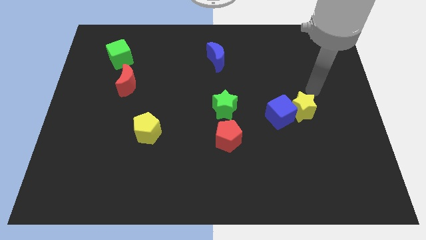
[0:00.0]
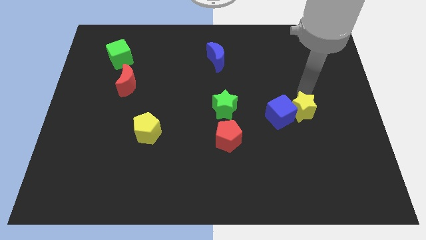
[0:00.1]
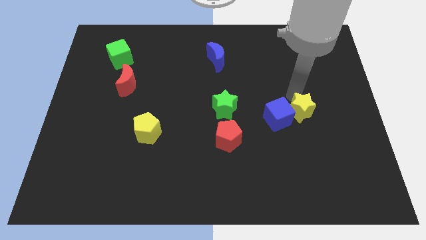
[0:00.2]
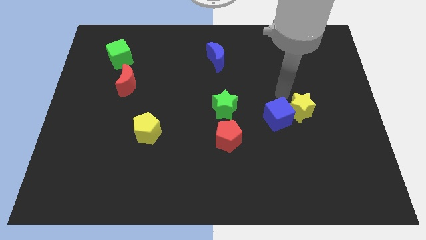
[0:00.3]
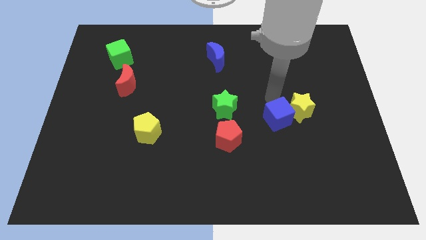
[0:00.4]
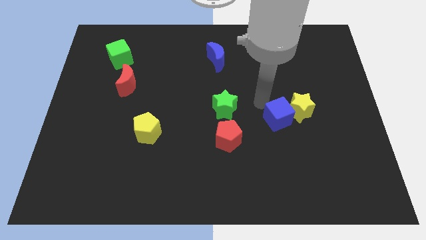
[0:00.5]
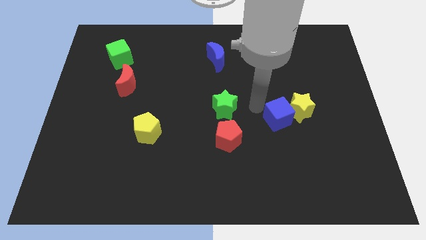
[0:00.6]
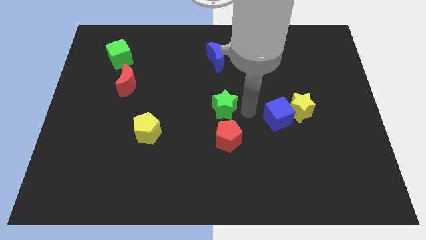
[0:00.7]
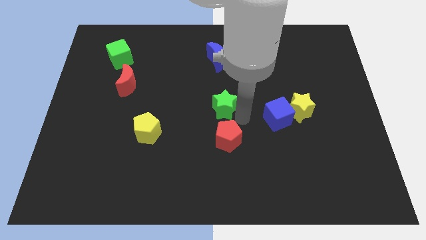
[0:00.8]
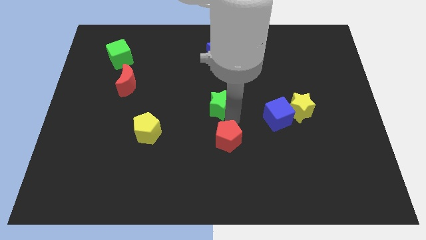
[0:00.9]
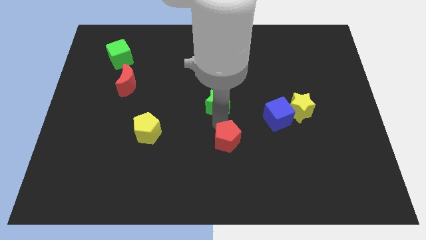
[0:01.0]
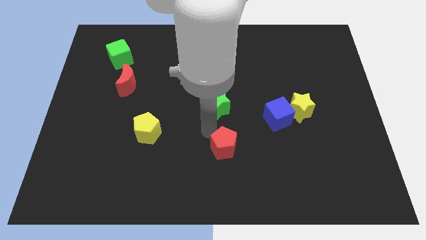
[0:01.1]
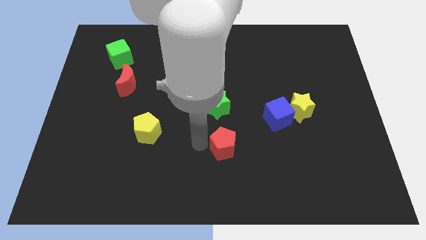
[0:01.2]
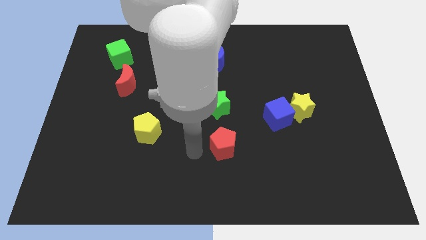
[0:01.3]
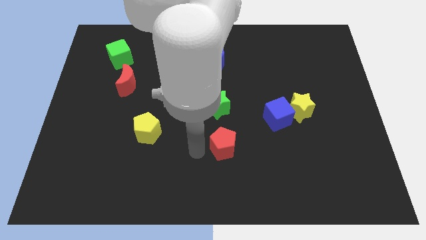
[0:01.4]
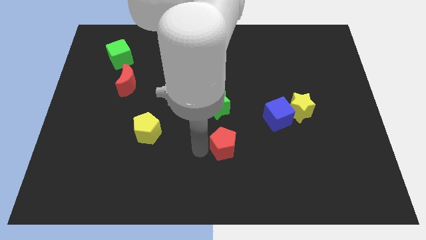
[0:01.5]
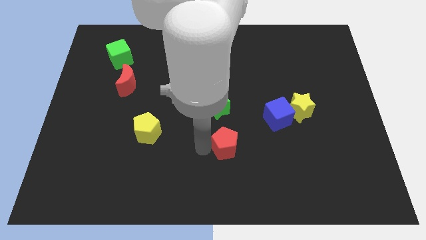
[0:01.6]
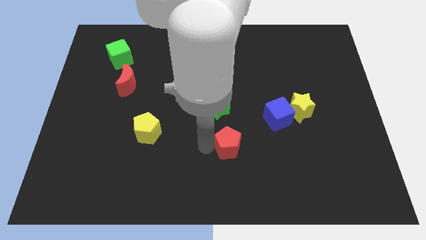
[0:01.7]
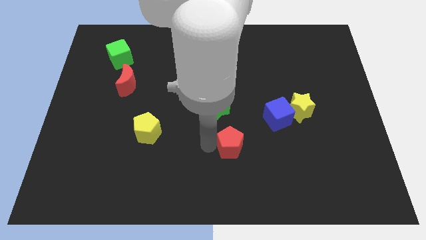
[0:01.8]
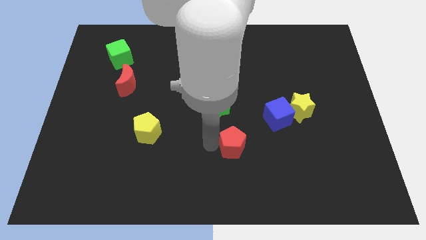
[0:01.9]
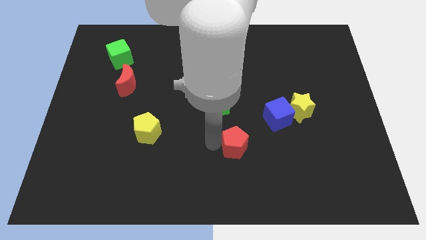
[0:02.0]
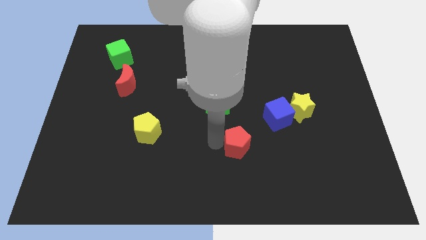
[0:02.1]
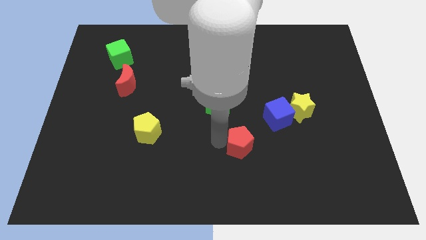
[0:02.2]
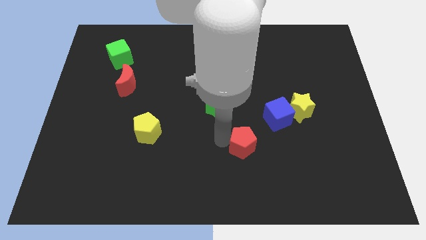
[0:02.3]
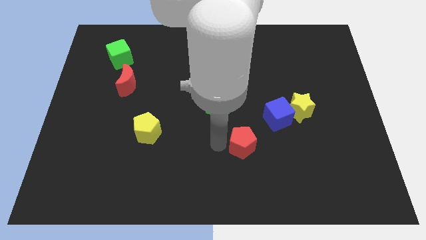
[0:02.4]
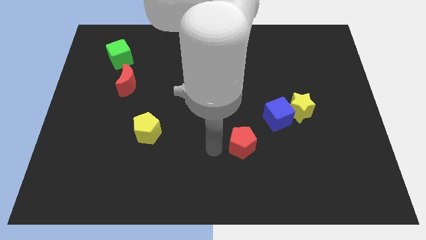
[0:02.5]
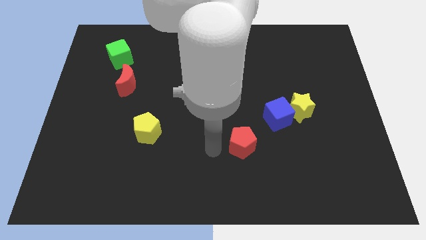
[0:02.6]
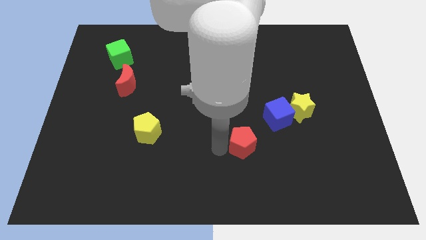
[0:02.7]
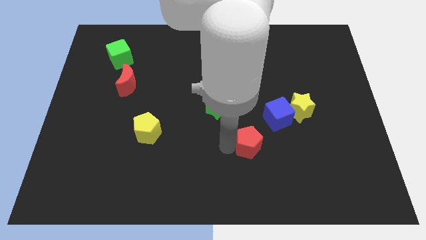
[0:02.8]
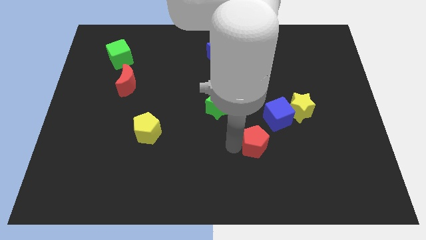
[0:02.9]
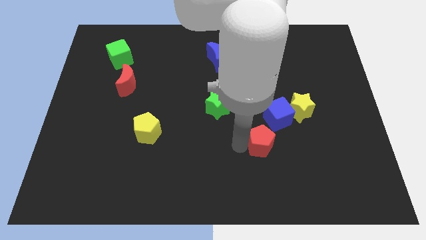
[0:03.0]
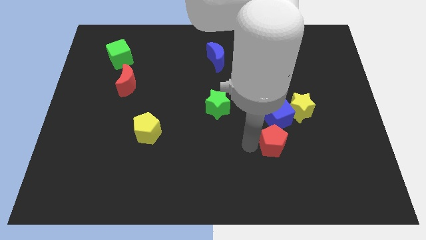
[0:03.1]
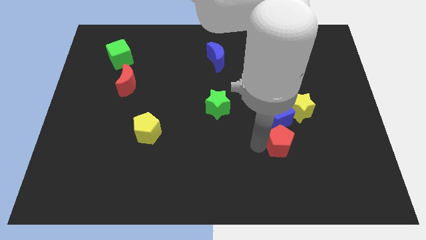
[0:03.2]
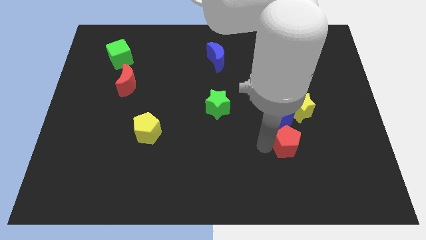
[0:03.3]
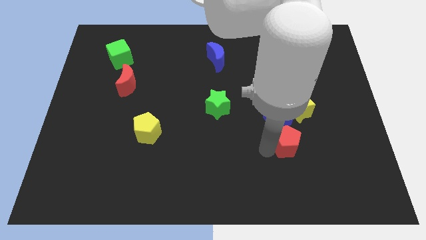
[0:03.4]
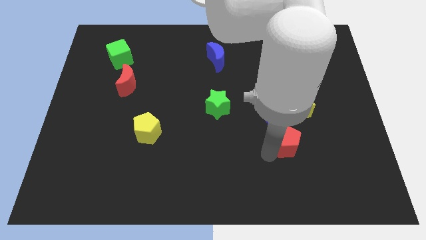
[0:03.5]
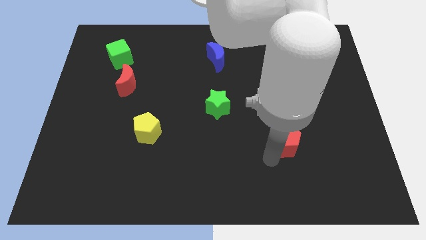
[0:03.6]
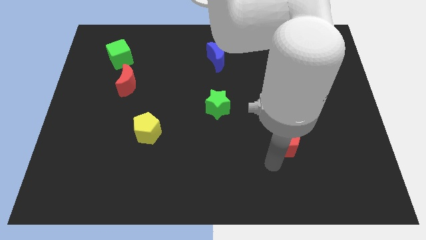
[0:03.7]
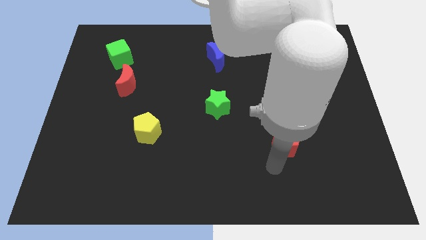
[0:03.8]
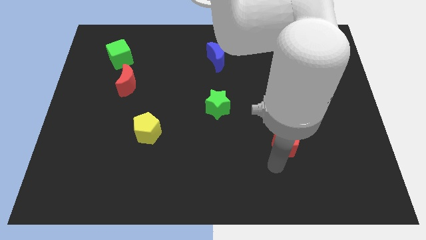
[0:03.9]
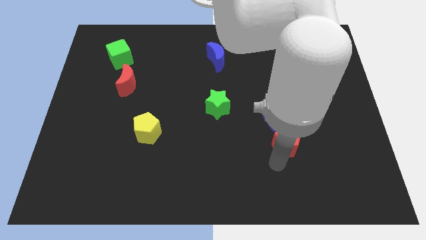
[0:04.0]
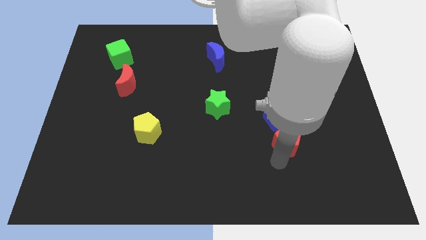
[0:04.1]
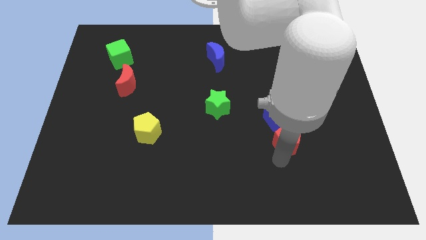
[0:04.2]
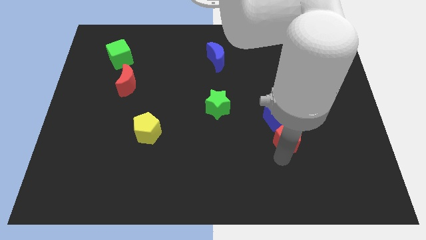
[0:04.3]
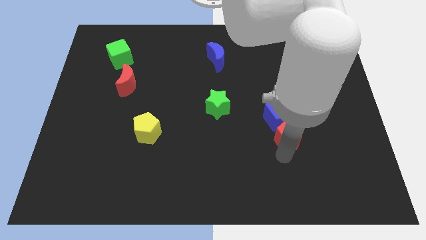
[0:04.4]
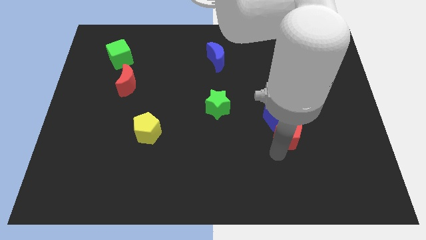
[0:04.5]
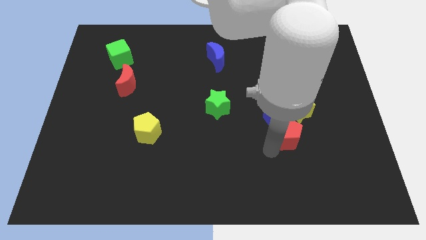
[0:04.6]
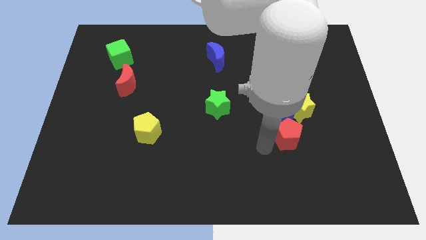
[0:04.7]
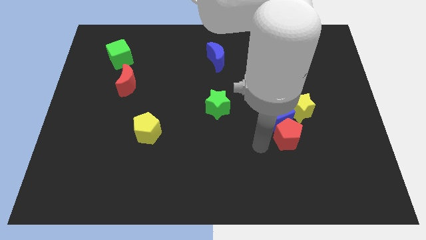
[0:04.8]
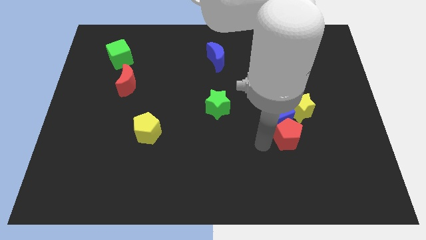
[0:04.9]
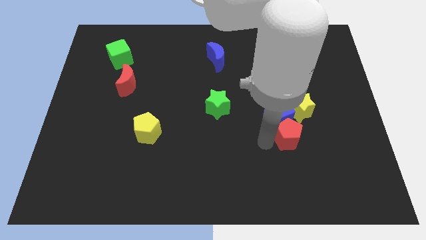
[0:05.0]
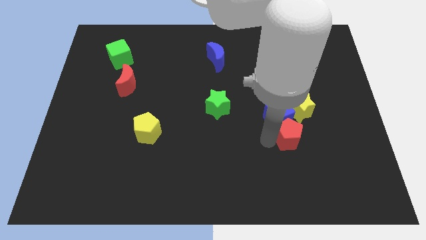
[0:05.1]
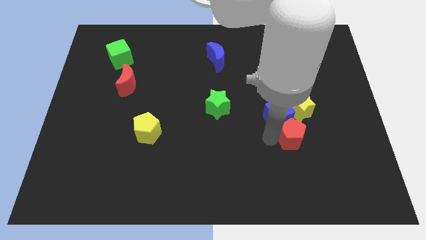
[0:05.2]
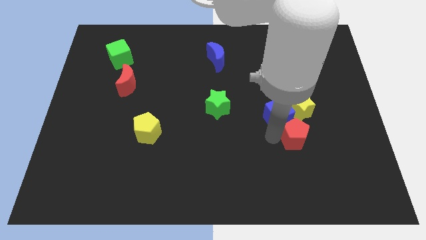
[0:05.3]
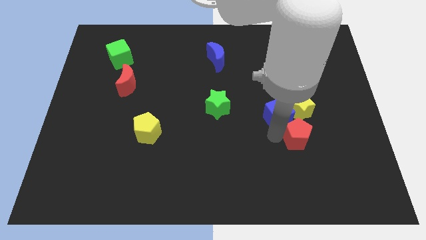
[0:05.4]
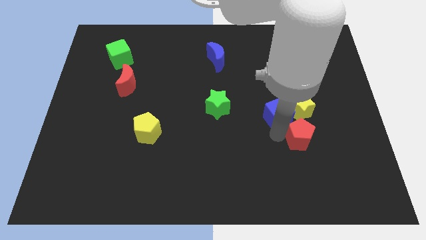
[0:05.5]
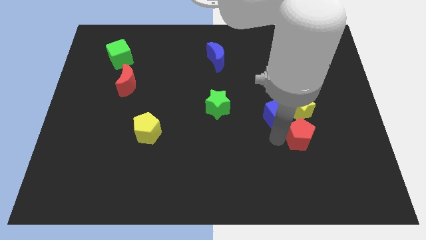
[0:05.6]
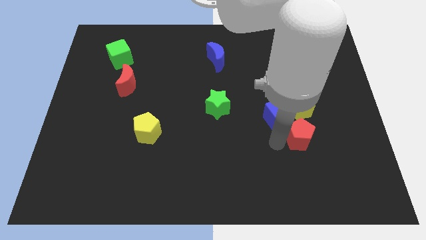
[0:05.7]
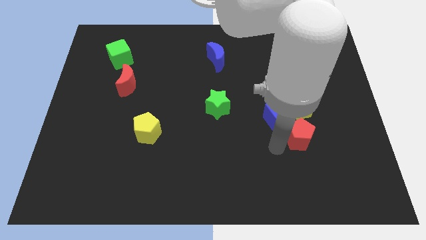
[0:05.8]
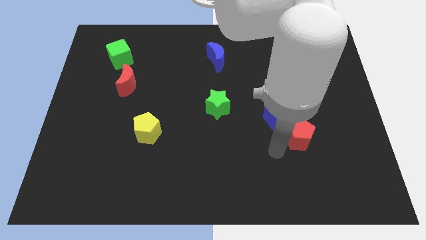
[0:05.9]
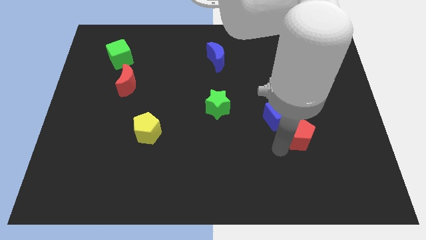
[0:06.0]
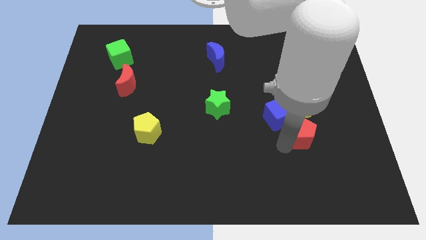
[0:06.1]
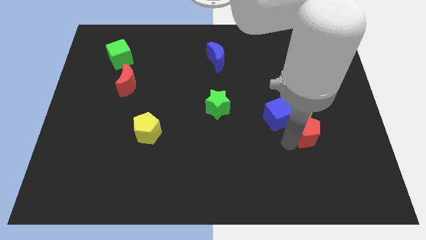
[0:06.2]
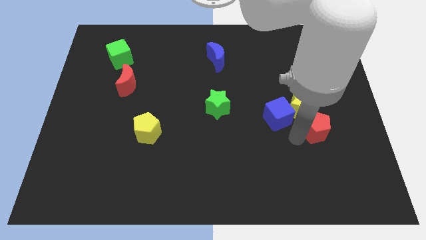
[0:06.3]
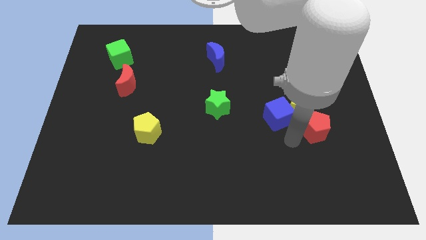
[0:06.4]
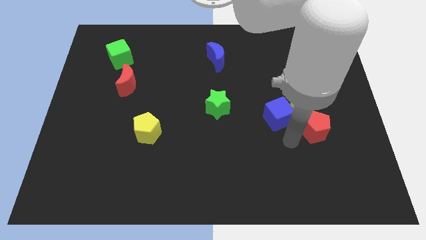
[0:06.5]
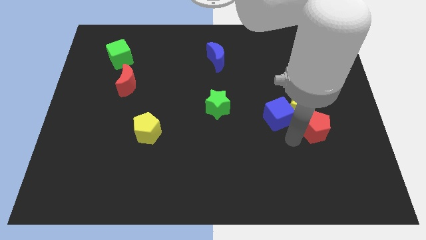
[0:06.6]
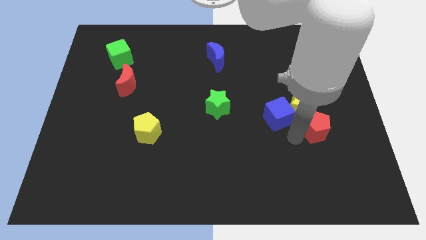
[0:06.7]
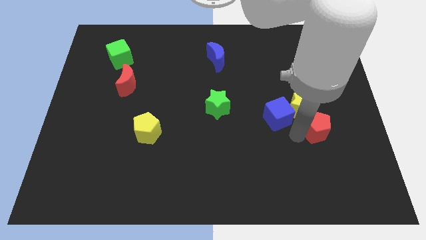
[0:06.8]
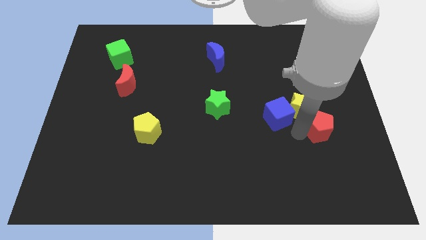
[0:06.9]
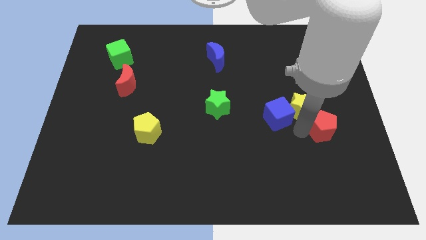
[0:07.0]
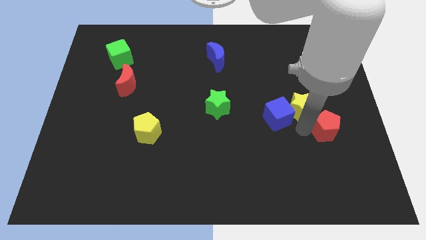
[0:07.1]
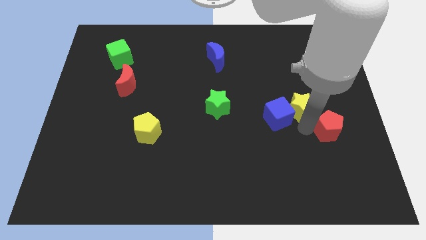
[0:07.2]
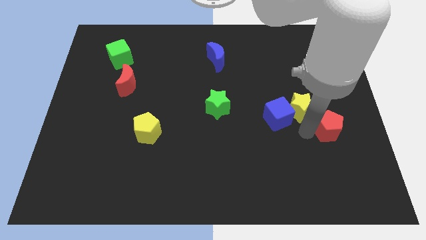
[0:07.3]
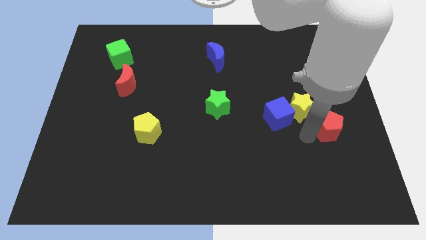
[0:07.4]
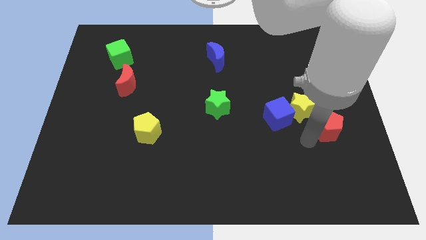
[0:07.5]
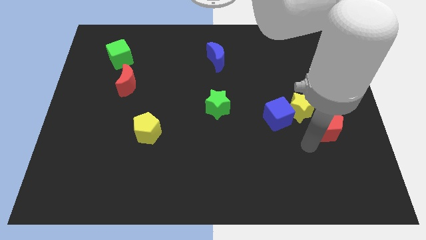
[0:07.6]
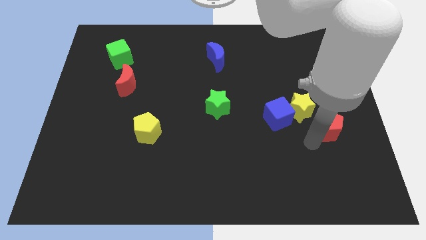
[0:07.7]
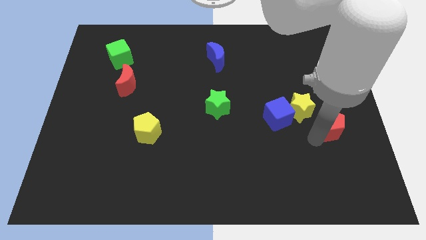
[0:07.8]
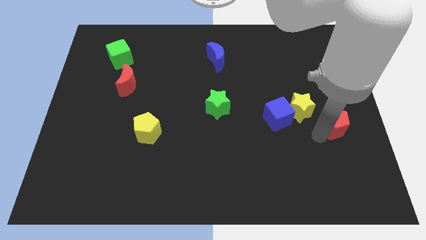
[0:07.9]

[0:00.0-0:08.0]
slide the red pentagon to the right side of the board
